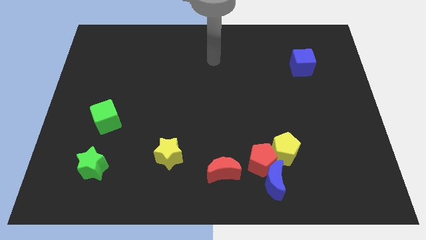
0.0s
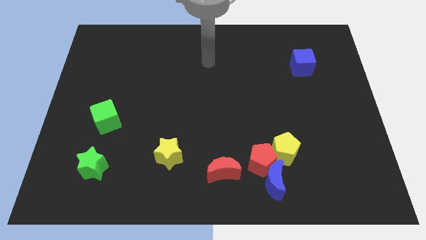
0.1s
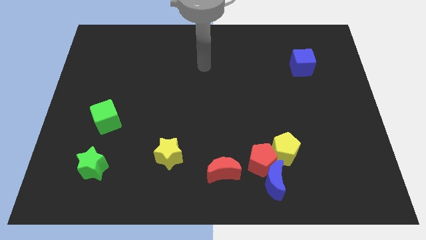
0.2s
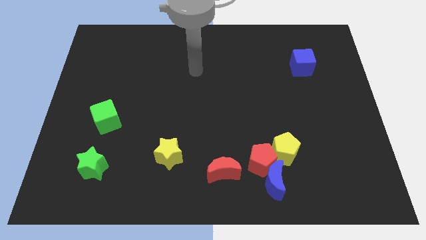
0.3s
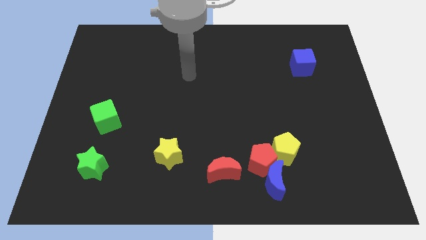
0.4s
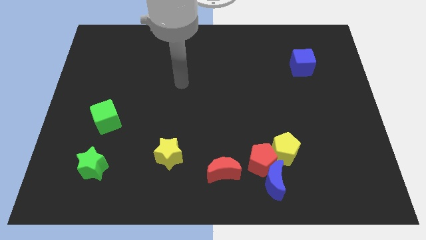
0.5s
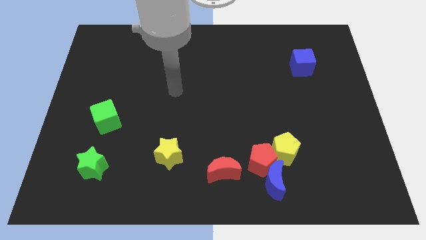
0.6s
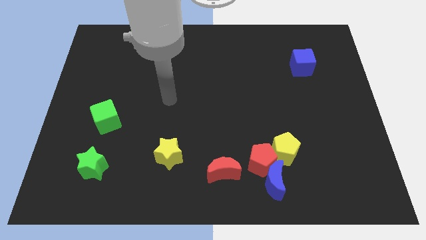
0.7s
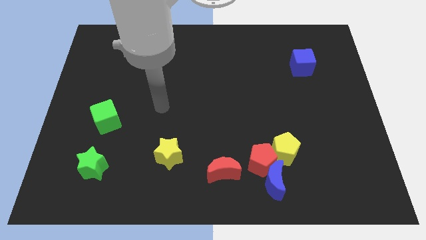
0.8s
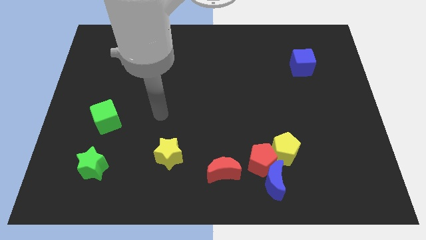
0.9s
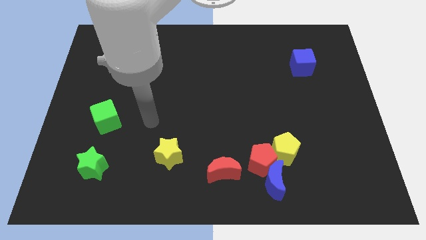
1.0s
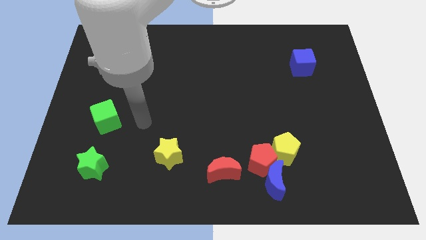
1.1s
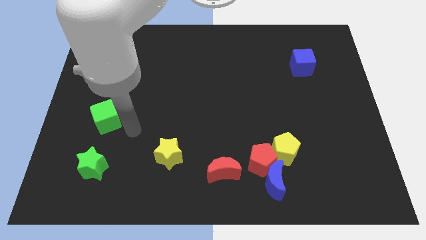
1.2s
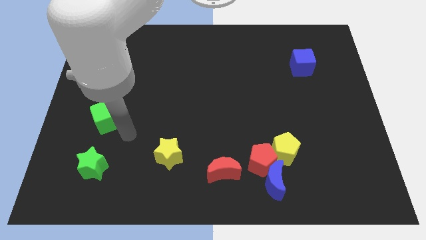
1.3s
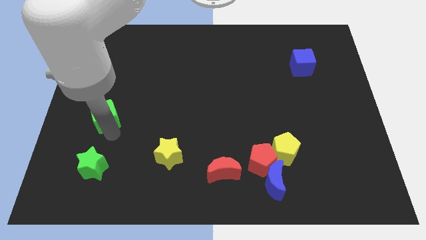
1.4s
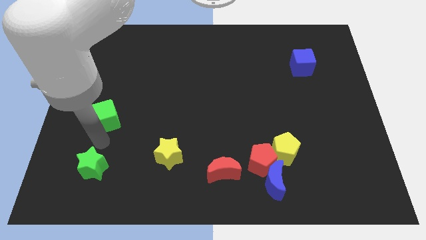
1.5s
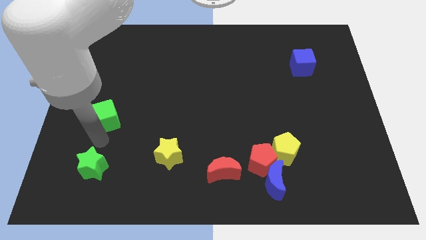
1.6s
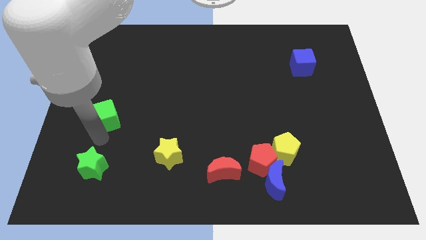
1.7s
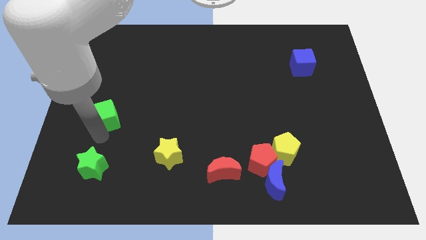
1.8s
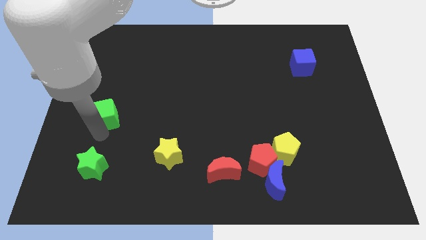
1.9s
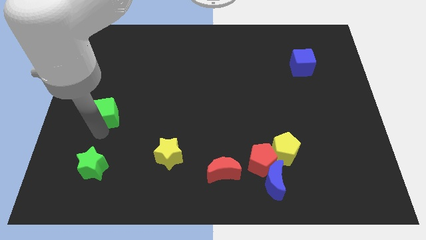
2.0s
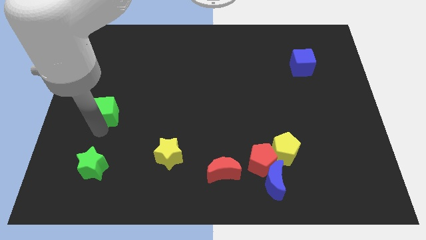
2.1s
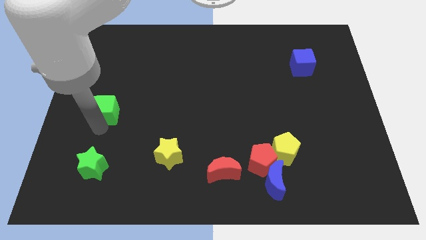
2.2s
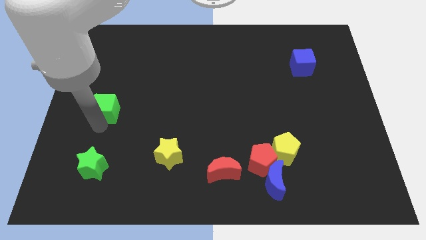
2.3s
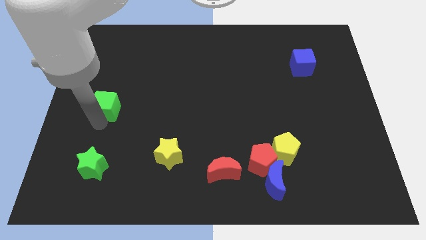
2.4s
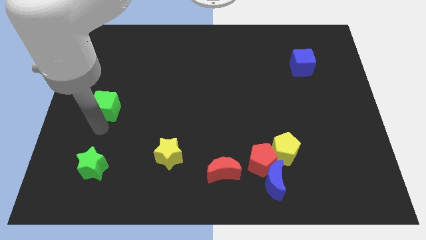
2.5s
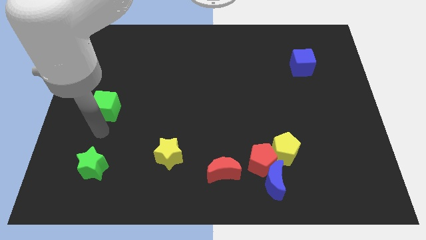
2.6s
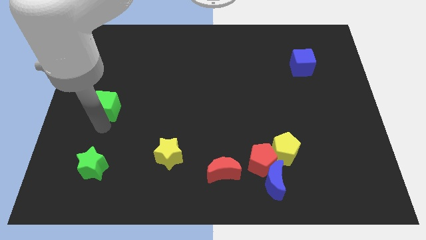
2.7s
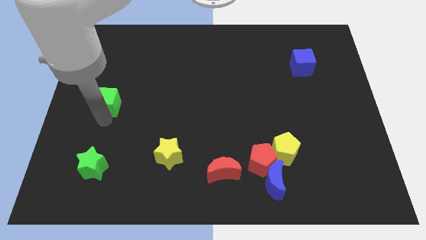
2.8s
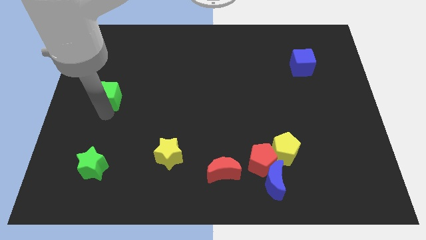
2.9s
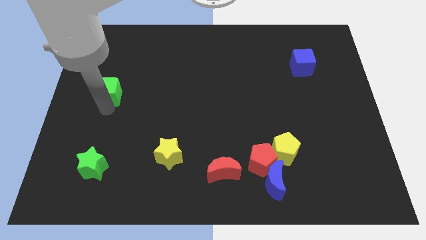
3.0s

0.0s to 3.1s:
slide the green cube a little bit upwards

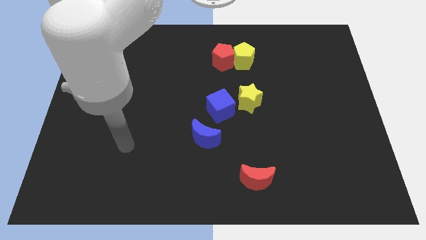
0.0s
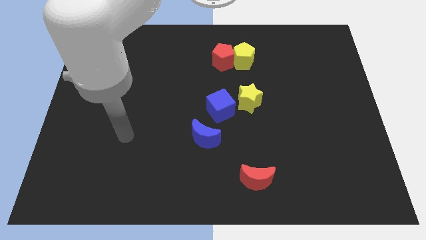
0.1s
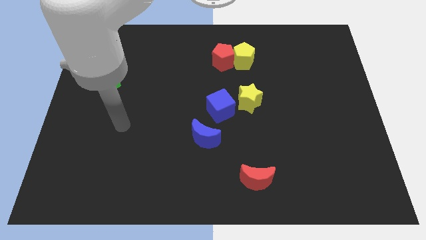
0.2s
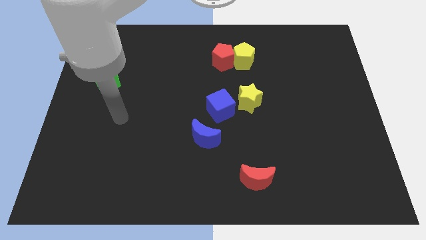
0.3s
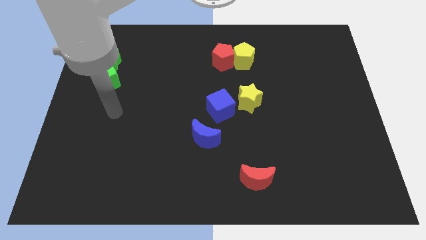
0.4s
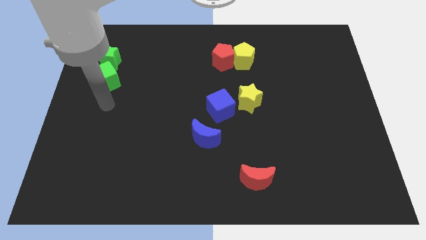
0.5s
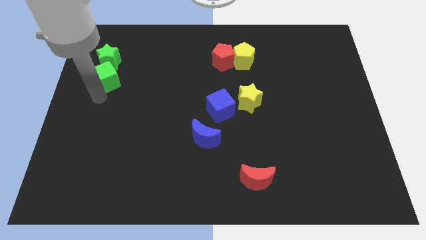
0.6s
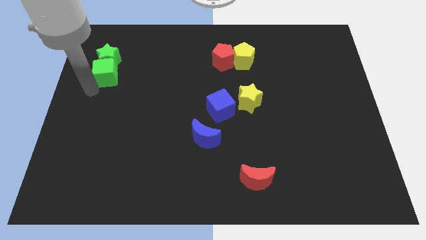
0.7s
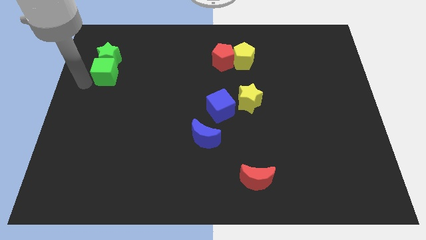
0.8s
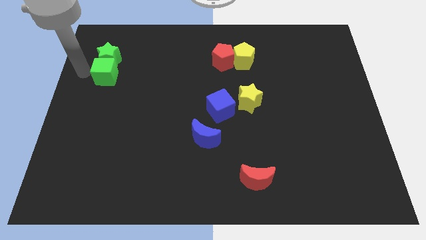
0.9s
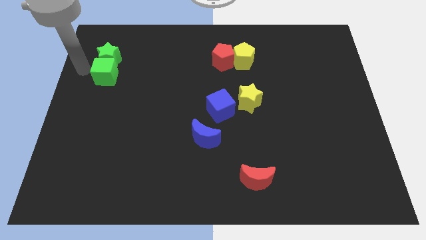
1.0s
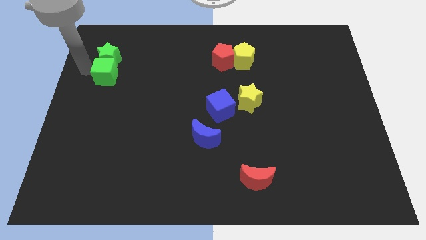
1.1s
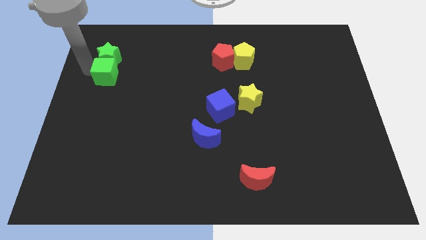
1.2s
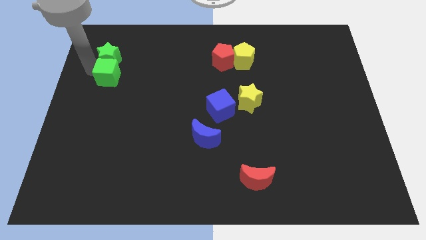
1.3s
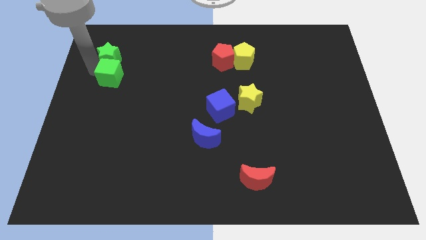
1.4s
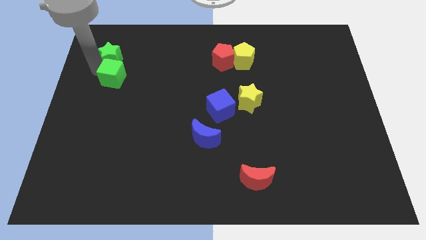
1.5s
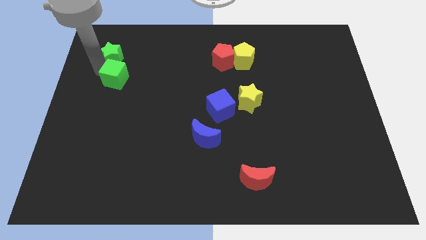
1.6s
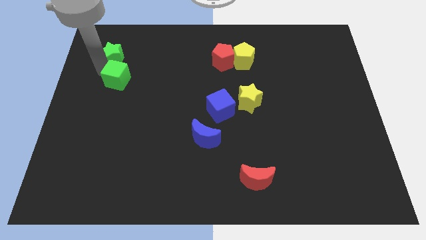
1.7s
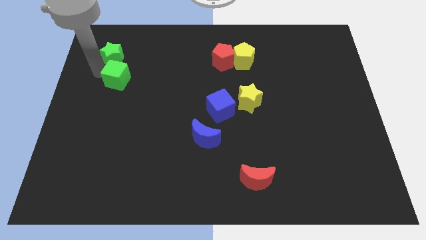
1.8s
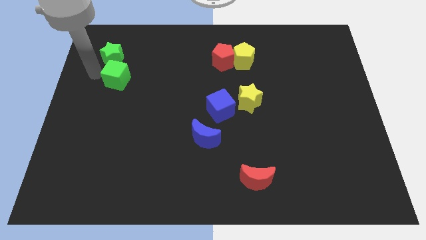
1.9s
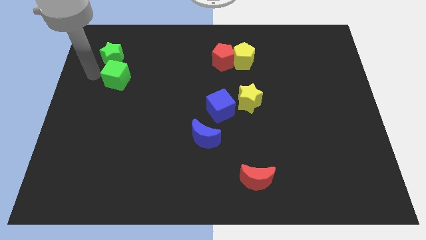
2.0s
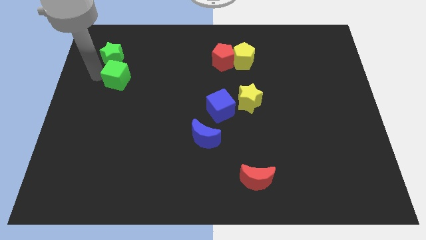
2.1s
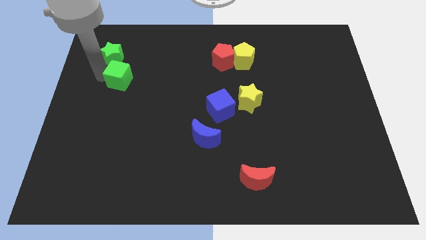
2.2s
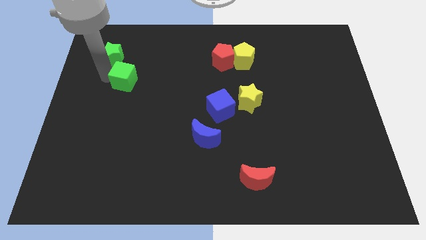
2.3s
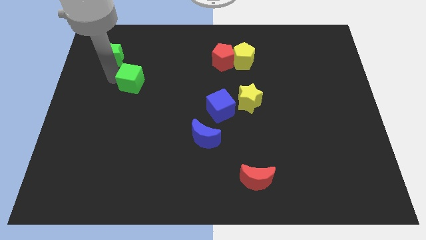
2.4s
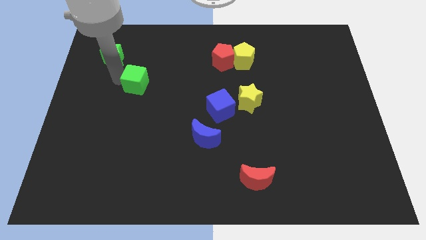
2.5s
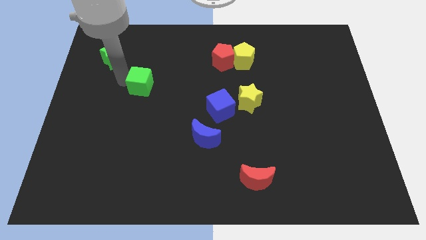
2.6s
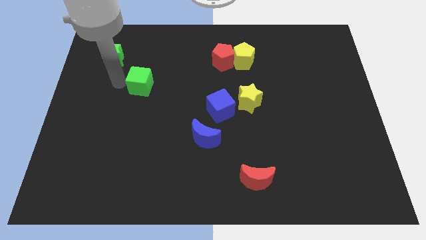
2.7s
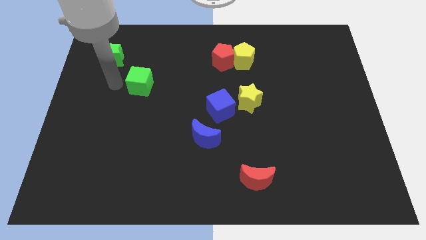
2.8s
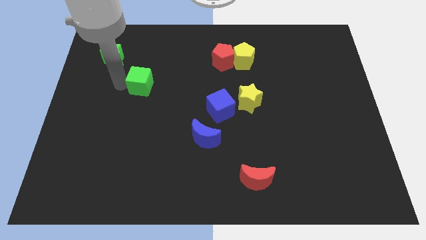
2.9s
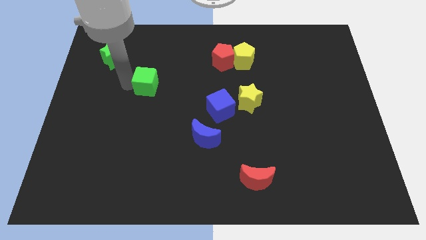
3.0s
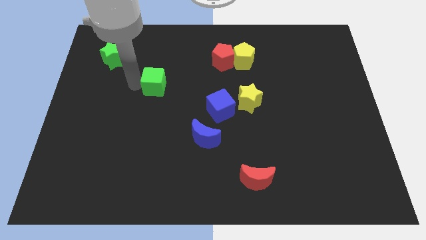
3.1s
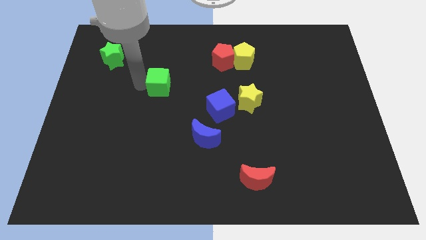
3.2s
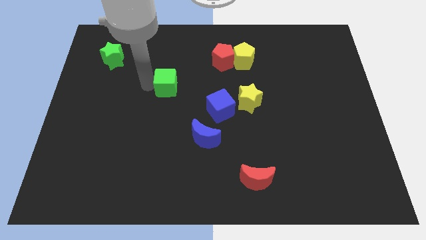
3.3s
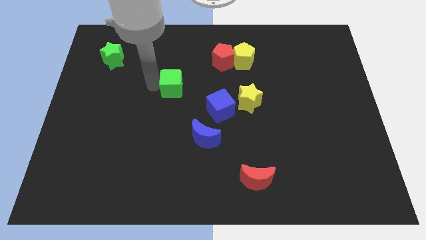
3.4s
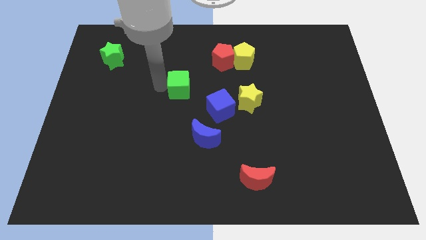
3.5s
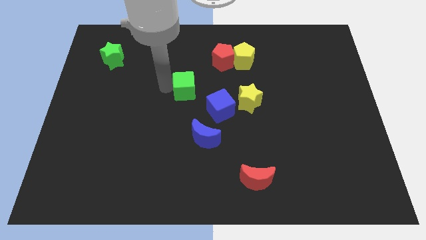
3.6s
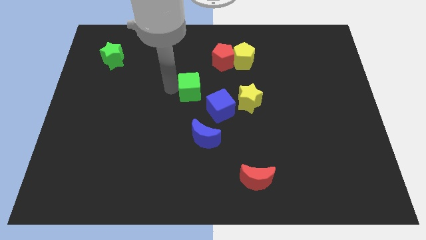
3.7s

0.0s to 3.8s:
slide the green cube right

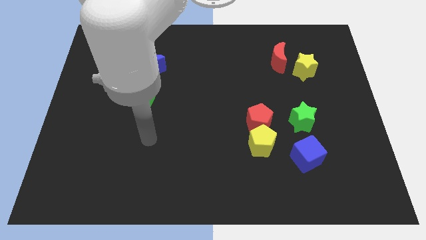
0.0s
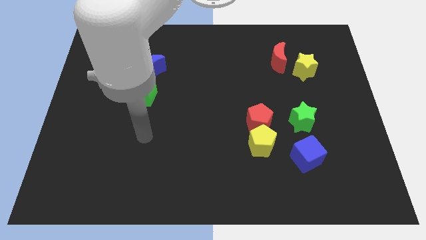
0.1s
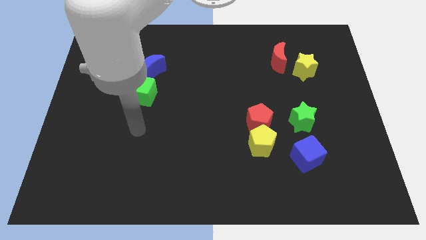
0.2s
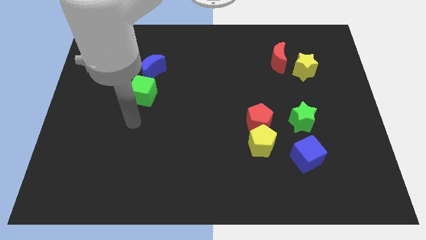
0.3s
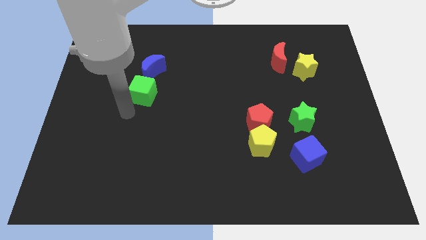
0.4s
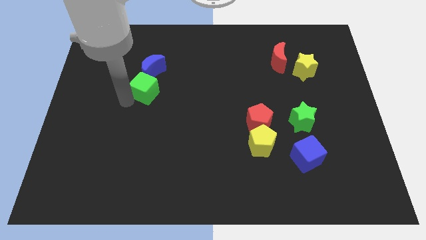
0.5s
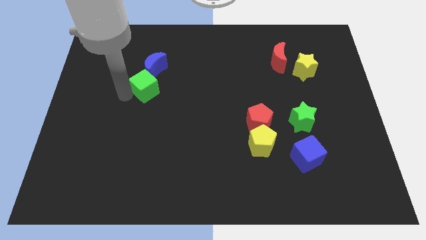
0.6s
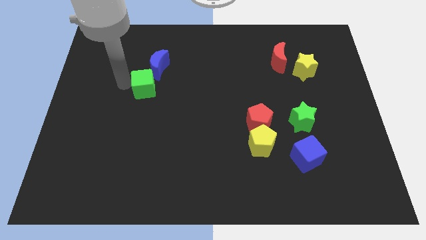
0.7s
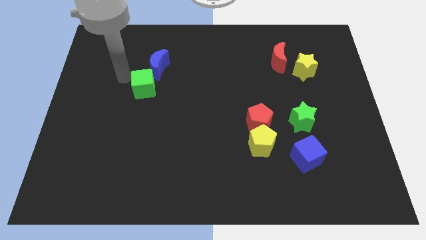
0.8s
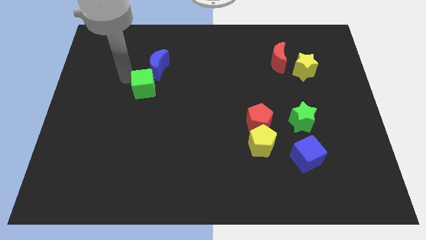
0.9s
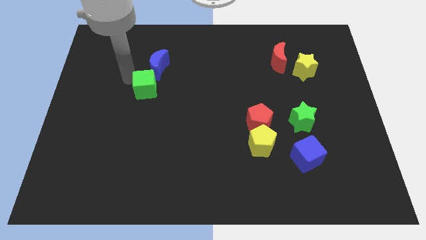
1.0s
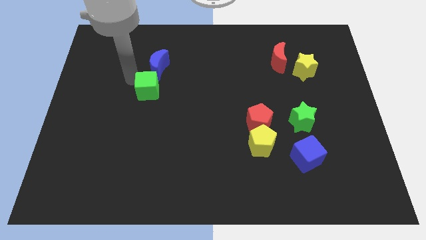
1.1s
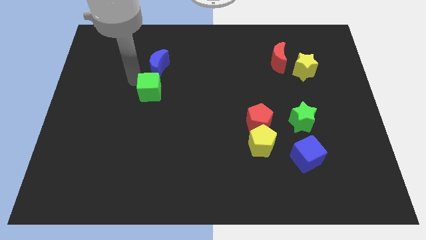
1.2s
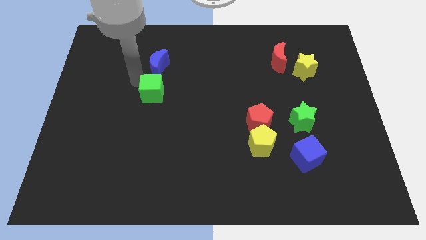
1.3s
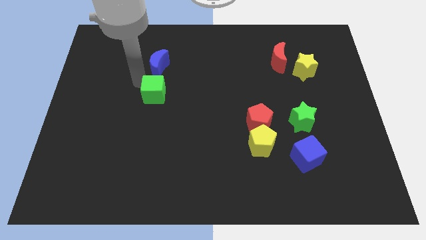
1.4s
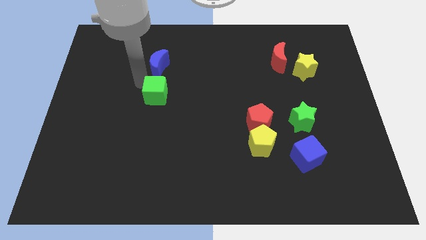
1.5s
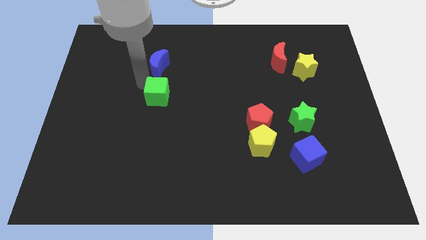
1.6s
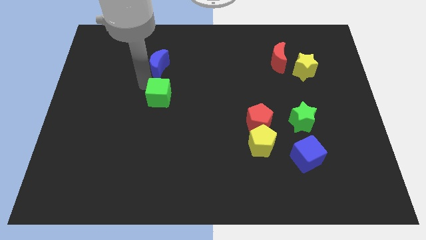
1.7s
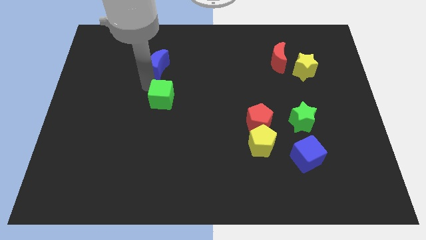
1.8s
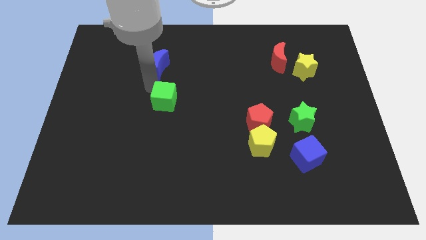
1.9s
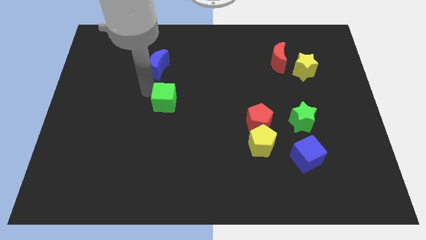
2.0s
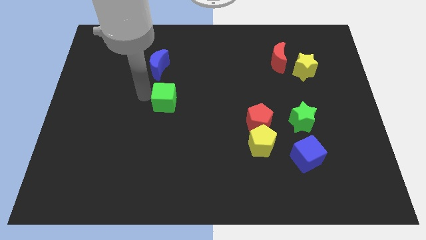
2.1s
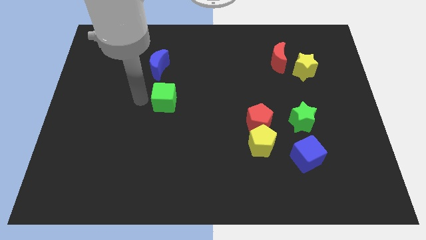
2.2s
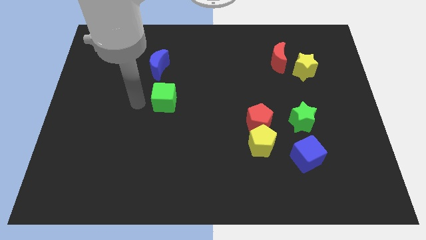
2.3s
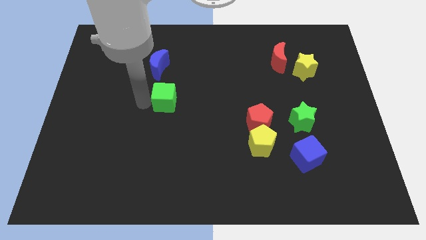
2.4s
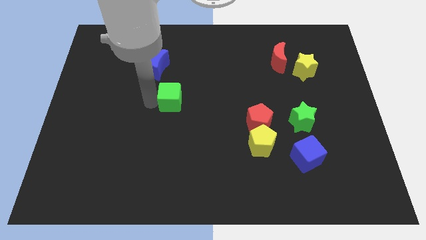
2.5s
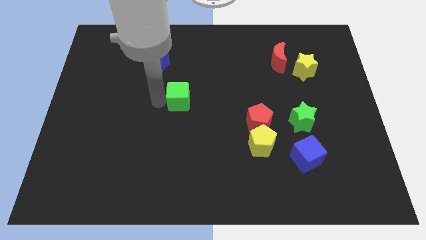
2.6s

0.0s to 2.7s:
slightly slide the green cube right
